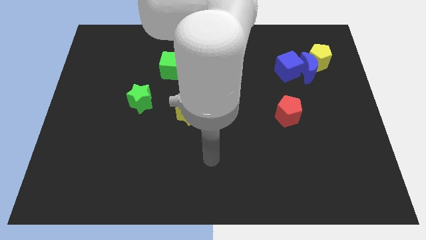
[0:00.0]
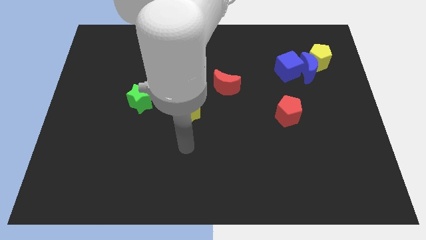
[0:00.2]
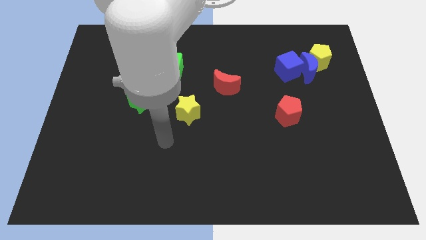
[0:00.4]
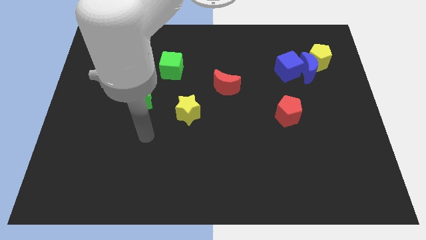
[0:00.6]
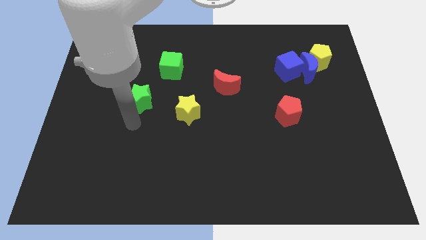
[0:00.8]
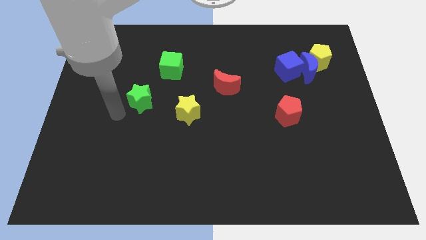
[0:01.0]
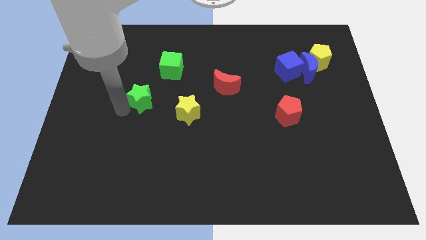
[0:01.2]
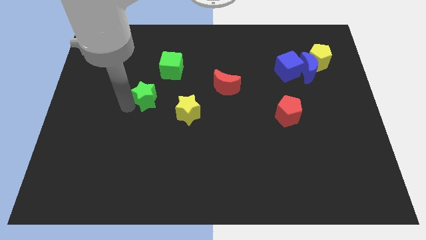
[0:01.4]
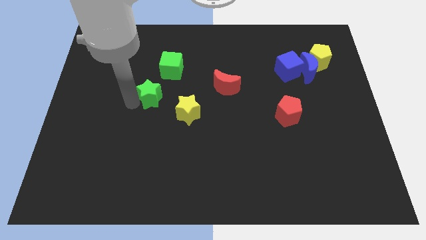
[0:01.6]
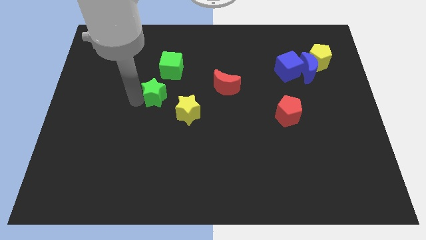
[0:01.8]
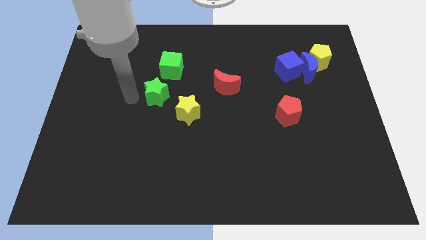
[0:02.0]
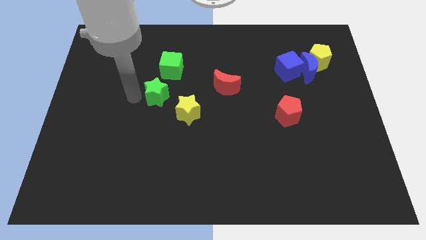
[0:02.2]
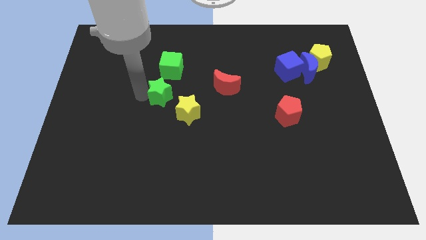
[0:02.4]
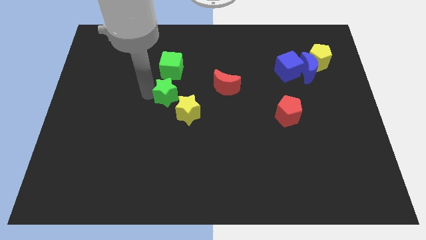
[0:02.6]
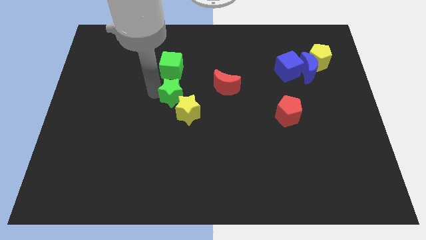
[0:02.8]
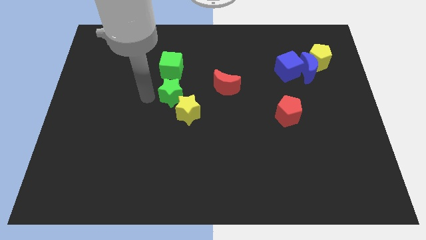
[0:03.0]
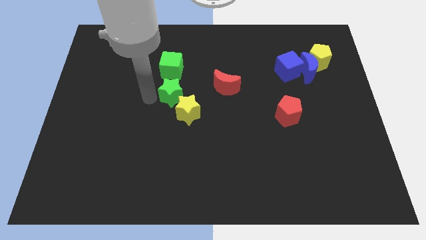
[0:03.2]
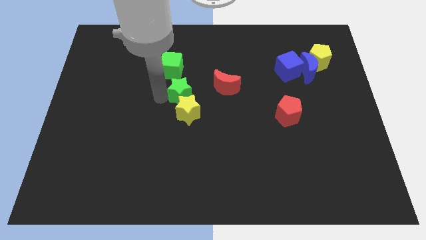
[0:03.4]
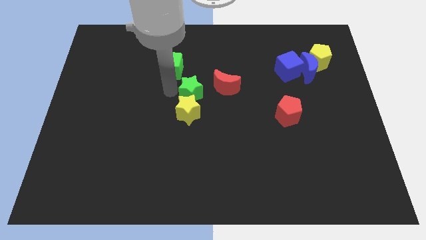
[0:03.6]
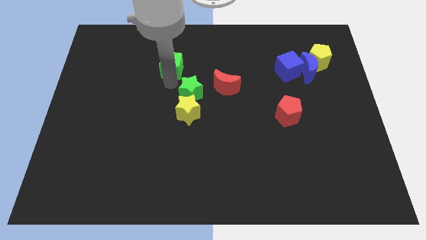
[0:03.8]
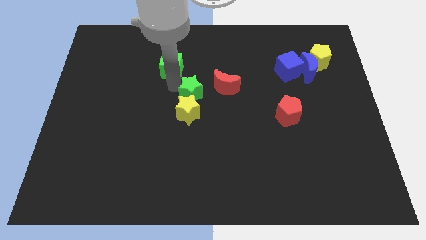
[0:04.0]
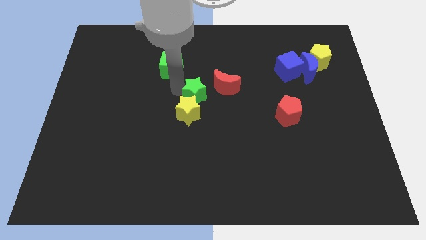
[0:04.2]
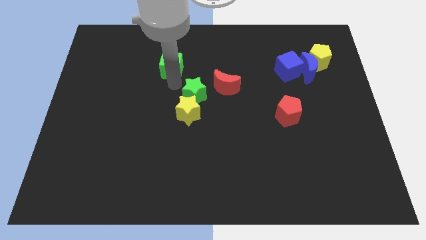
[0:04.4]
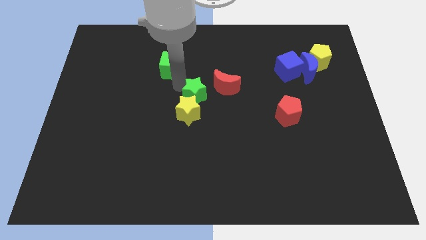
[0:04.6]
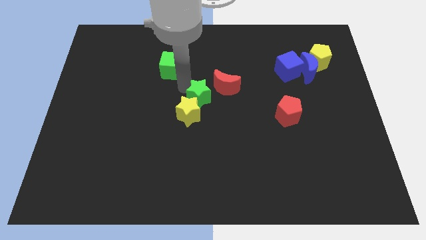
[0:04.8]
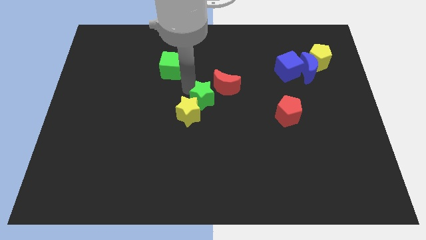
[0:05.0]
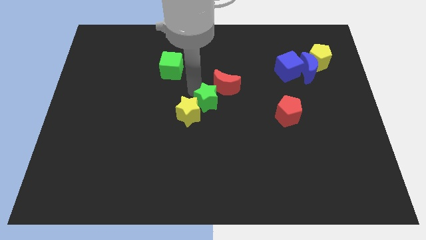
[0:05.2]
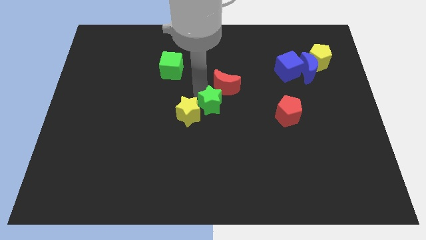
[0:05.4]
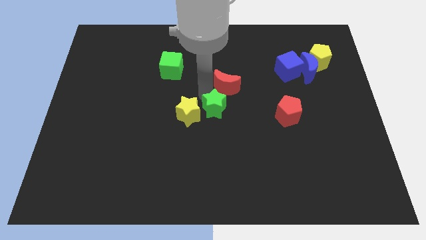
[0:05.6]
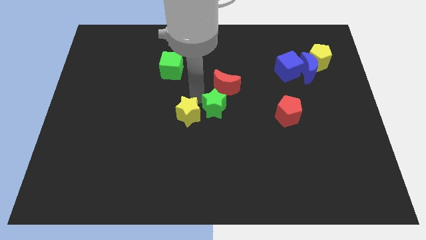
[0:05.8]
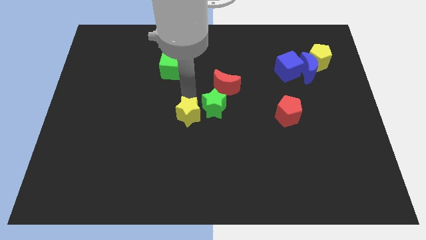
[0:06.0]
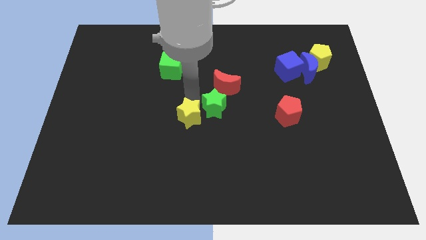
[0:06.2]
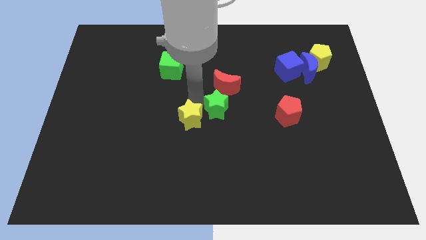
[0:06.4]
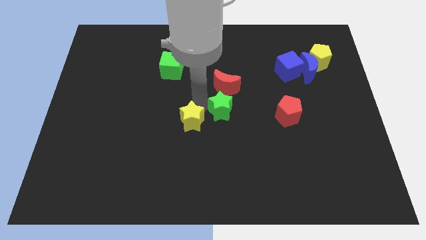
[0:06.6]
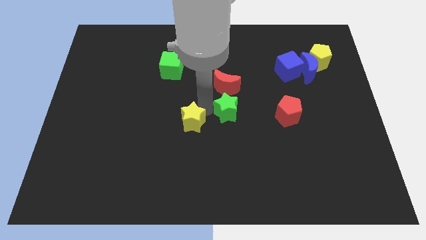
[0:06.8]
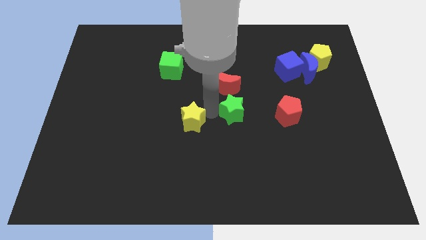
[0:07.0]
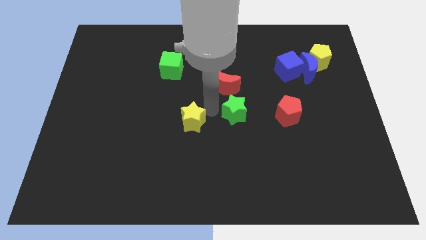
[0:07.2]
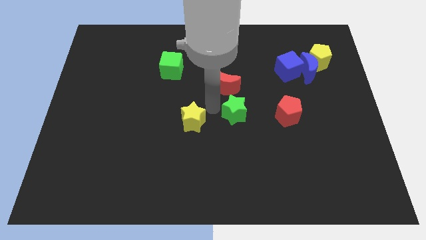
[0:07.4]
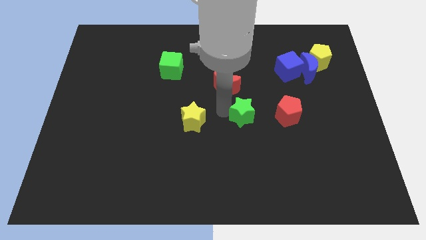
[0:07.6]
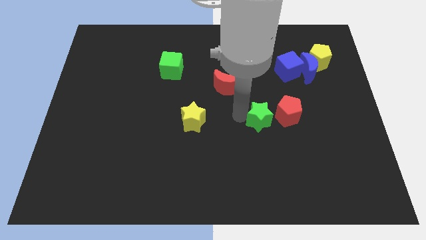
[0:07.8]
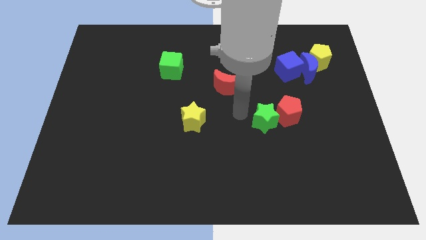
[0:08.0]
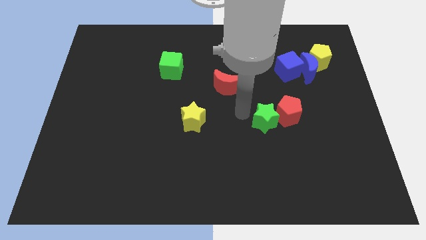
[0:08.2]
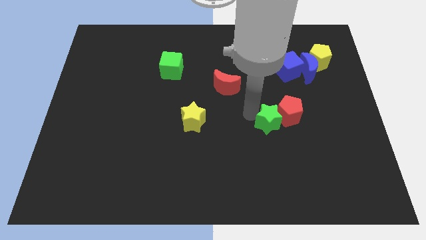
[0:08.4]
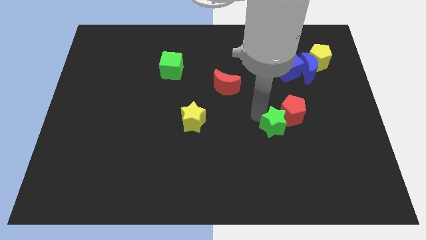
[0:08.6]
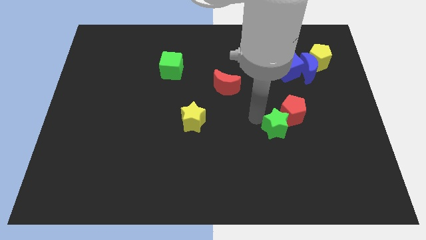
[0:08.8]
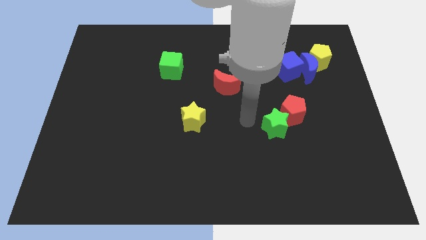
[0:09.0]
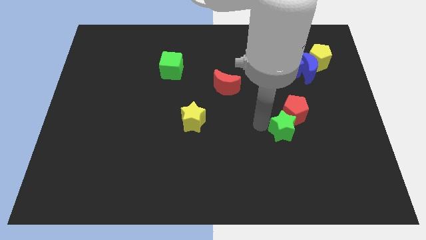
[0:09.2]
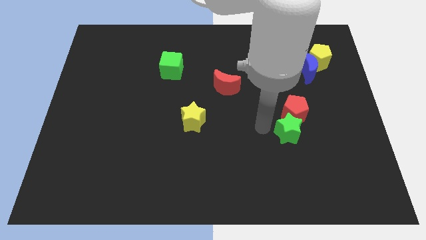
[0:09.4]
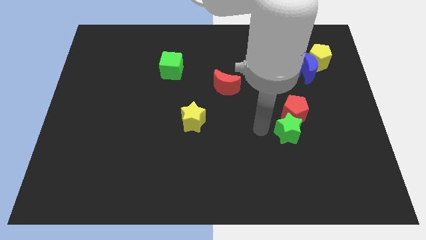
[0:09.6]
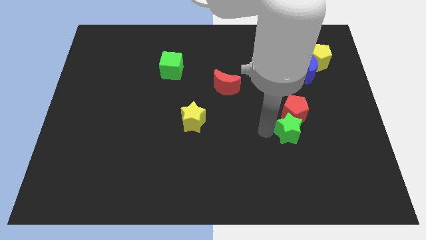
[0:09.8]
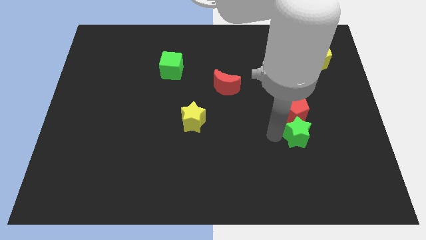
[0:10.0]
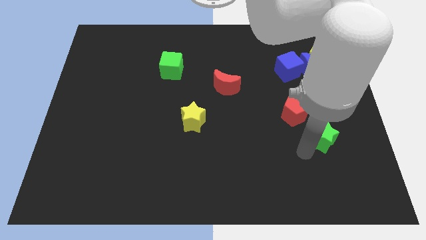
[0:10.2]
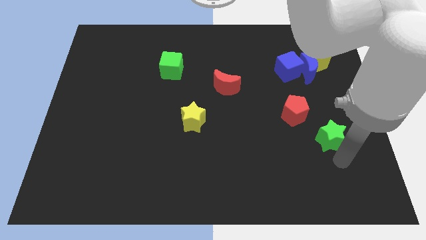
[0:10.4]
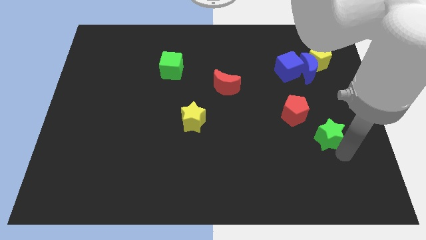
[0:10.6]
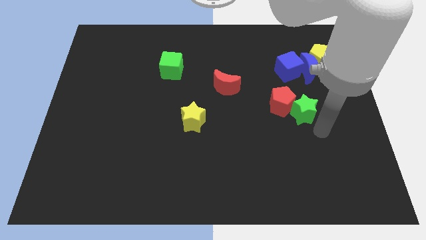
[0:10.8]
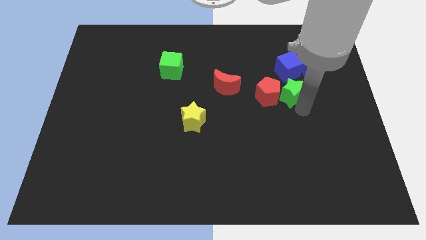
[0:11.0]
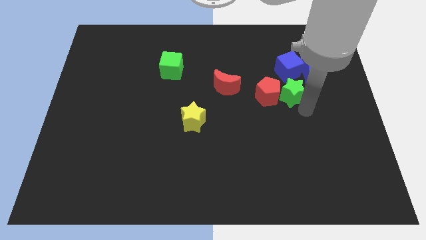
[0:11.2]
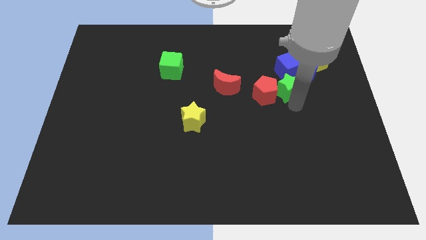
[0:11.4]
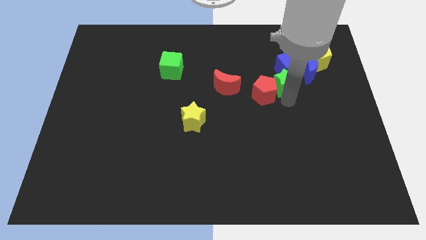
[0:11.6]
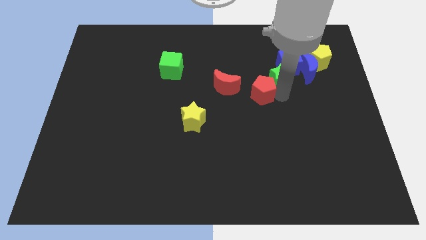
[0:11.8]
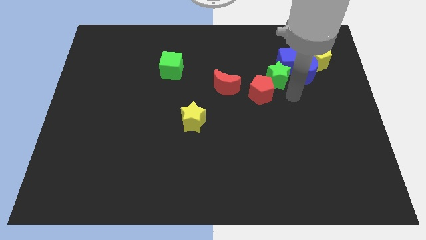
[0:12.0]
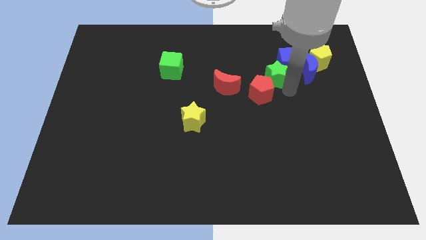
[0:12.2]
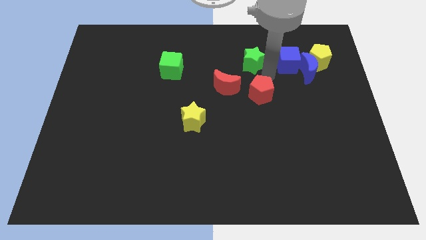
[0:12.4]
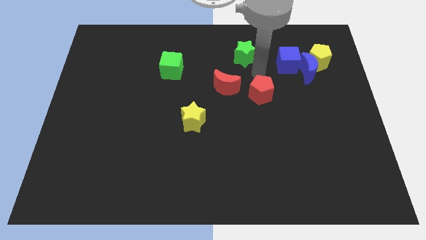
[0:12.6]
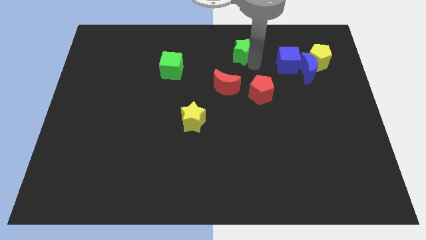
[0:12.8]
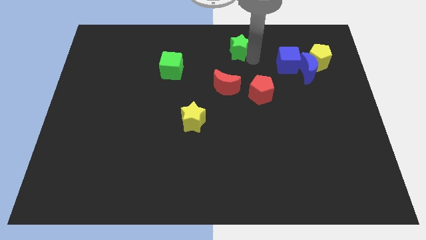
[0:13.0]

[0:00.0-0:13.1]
put the green star to the top side
